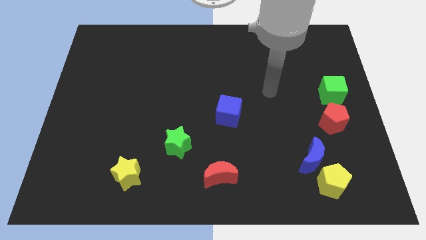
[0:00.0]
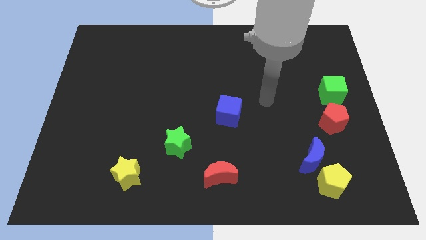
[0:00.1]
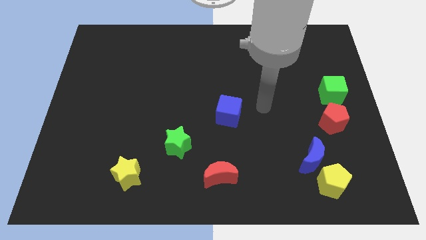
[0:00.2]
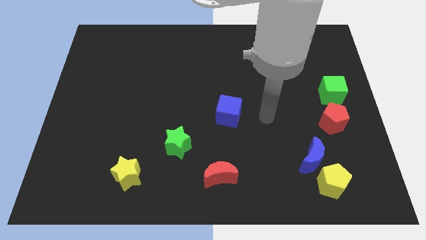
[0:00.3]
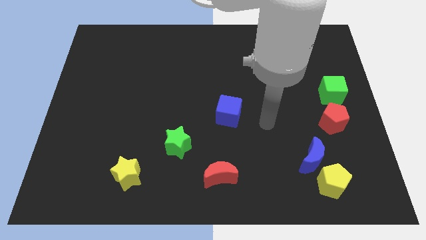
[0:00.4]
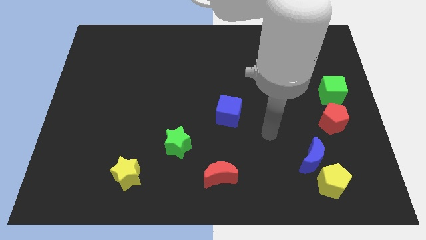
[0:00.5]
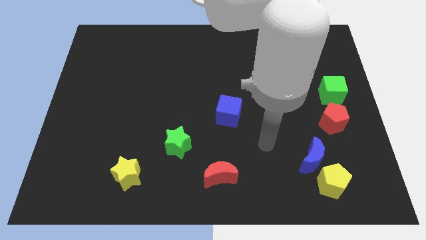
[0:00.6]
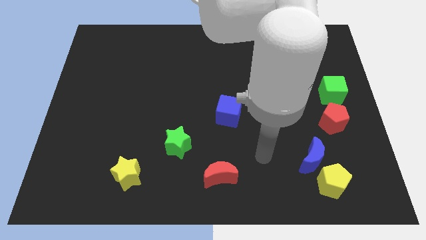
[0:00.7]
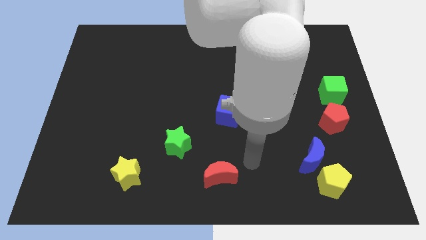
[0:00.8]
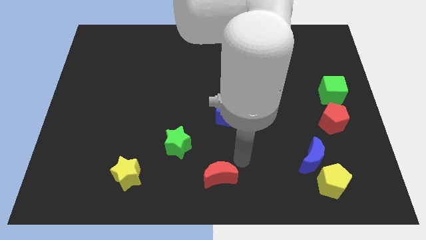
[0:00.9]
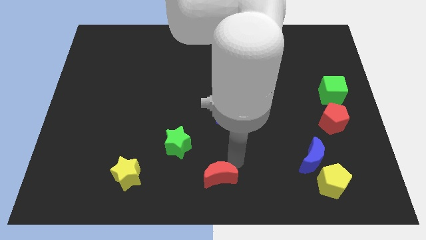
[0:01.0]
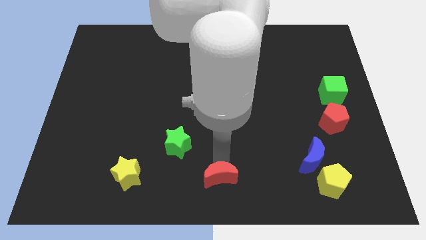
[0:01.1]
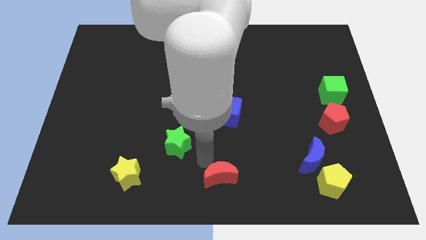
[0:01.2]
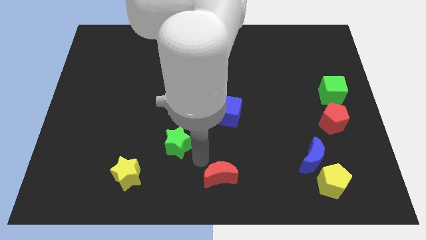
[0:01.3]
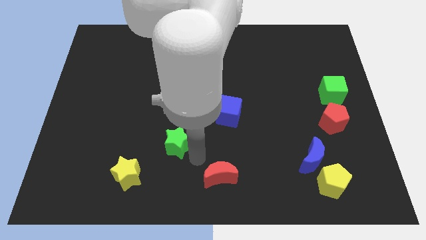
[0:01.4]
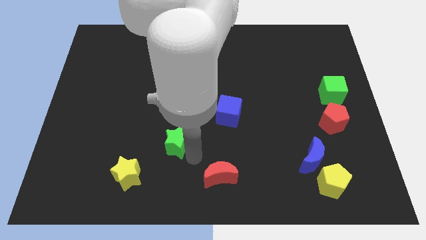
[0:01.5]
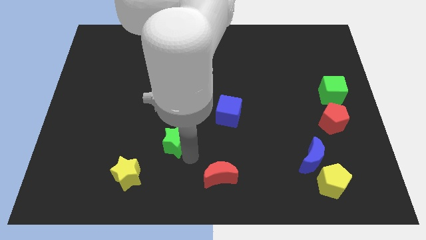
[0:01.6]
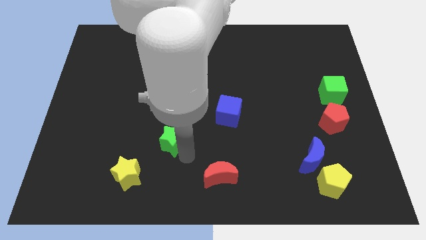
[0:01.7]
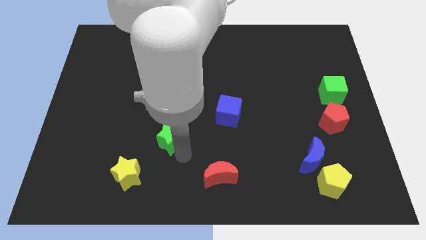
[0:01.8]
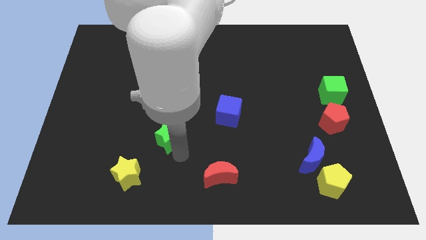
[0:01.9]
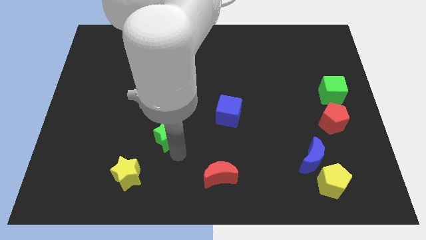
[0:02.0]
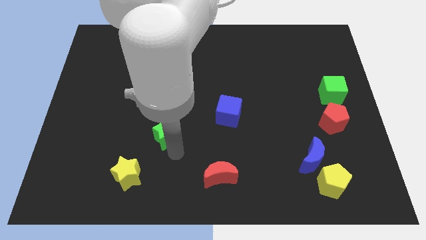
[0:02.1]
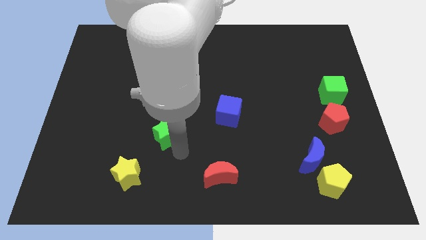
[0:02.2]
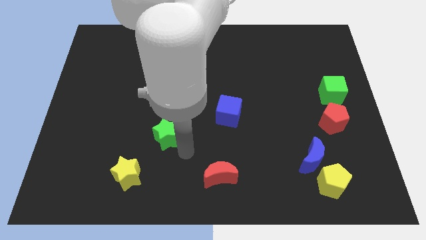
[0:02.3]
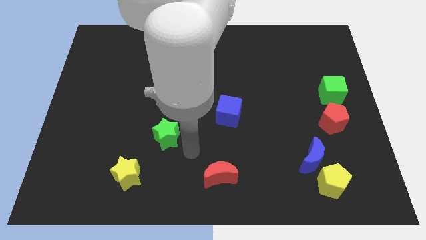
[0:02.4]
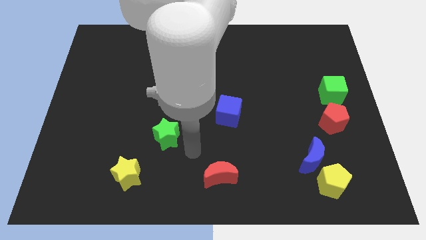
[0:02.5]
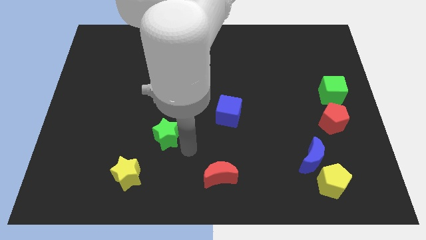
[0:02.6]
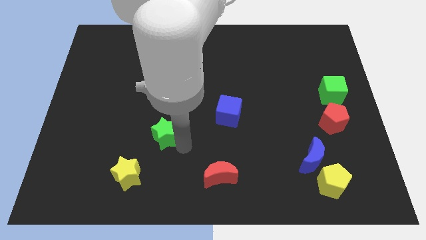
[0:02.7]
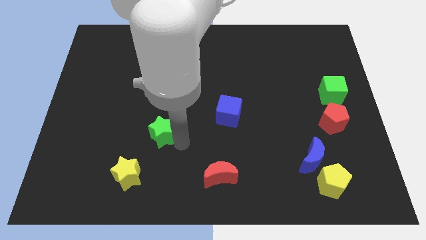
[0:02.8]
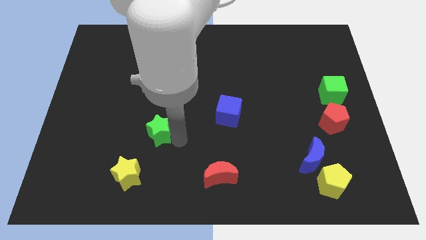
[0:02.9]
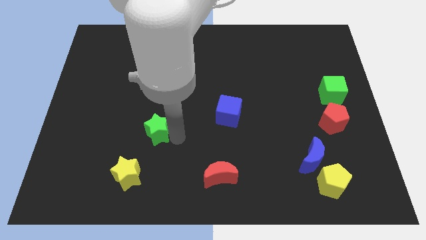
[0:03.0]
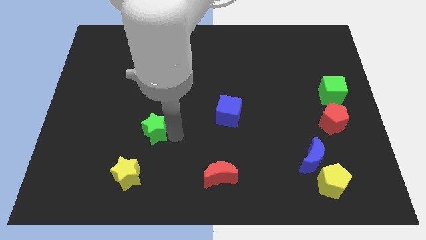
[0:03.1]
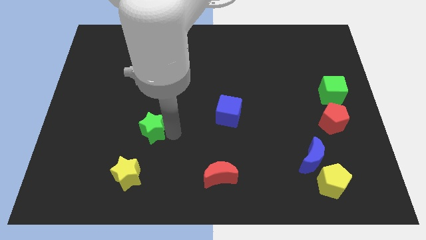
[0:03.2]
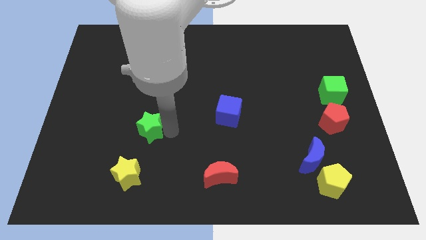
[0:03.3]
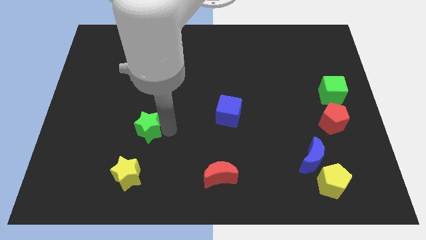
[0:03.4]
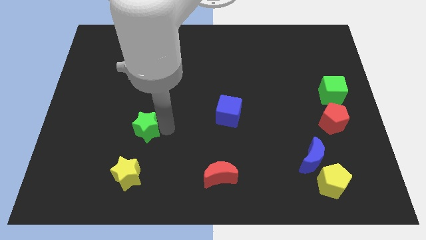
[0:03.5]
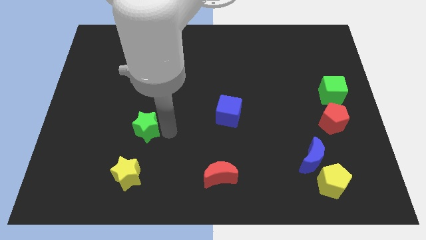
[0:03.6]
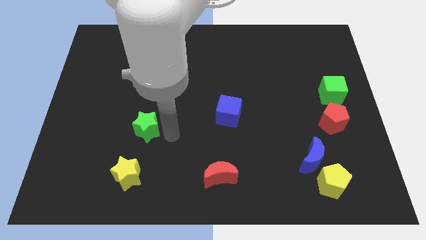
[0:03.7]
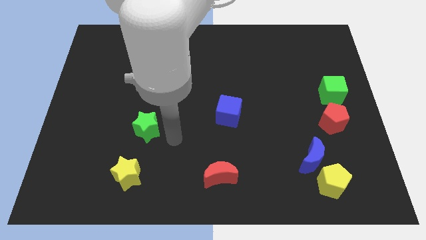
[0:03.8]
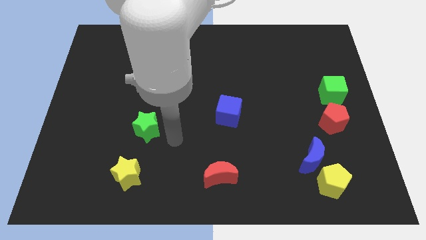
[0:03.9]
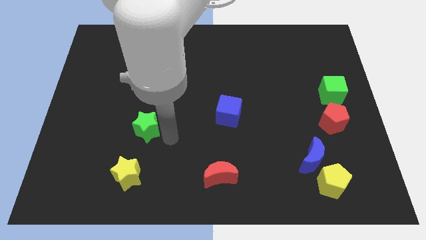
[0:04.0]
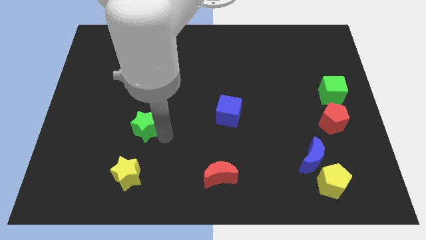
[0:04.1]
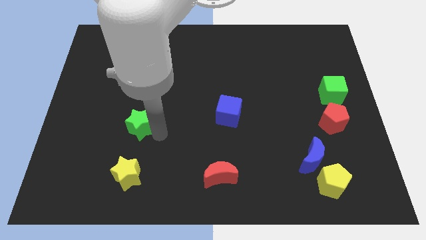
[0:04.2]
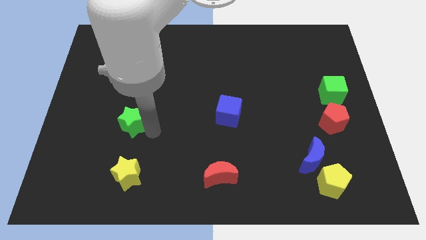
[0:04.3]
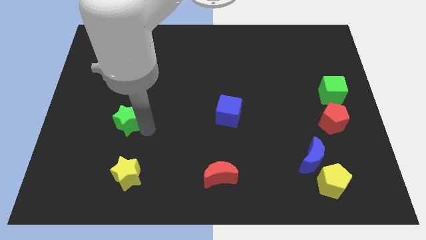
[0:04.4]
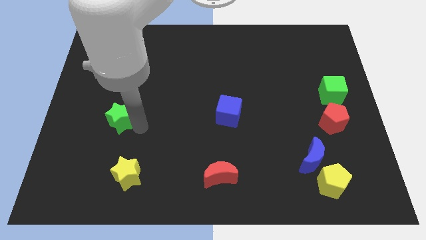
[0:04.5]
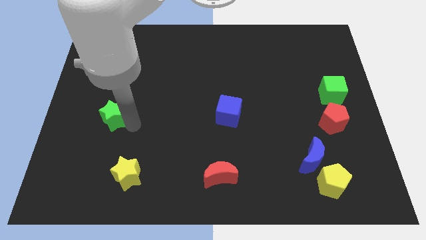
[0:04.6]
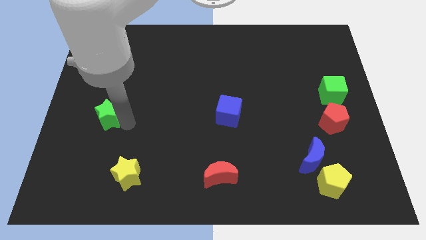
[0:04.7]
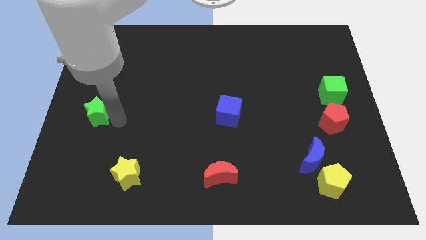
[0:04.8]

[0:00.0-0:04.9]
push the green star to the left side of the board

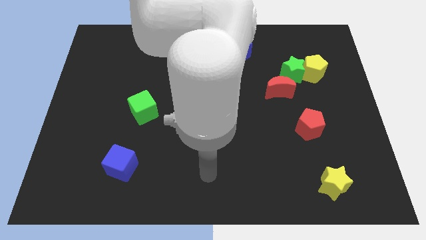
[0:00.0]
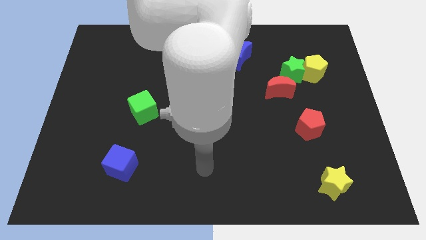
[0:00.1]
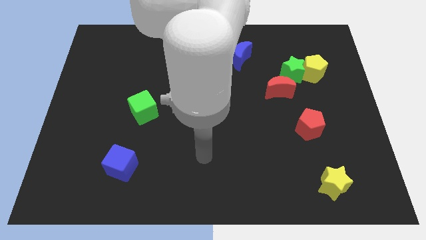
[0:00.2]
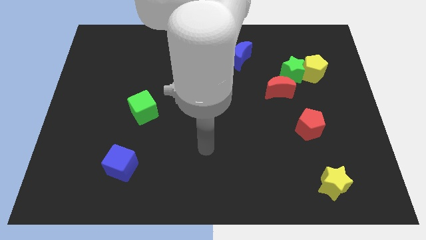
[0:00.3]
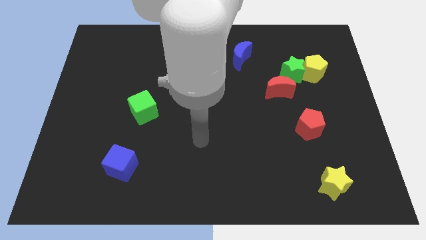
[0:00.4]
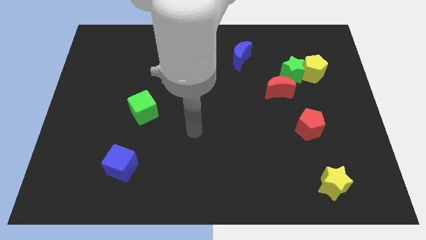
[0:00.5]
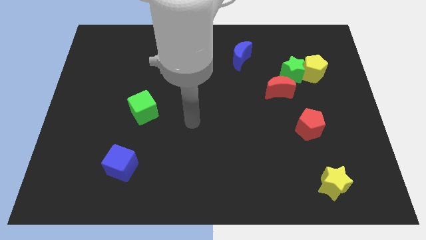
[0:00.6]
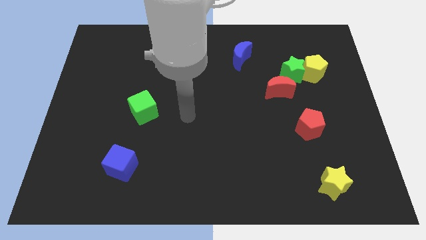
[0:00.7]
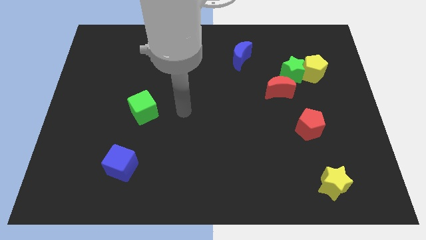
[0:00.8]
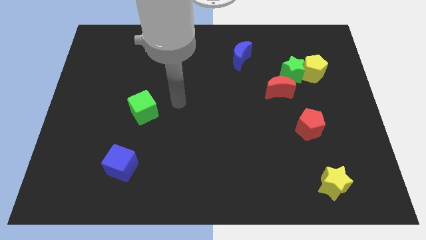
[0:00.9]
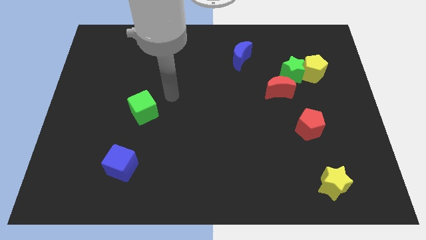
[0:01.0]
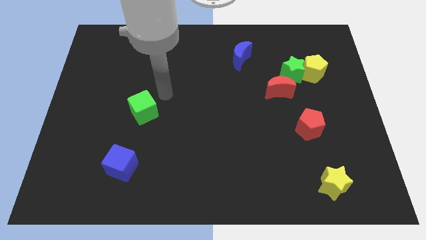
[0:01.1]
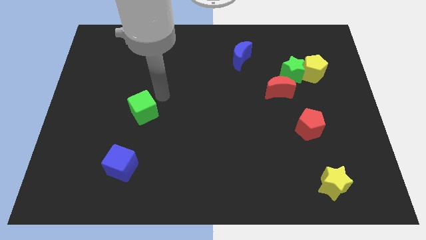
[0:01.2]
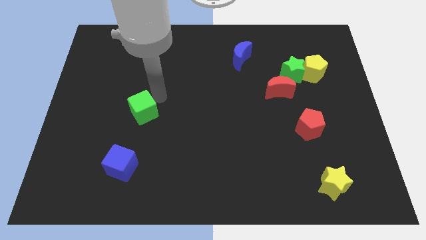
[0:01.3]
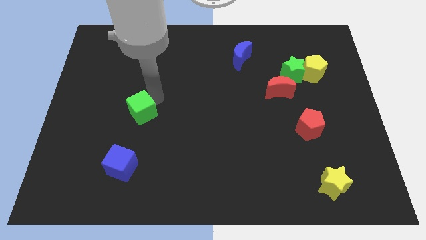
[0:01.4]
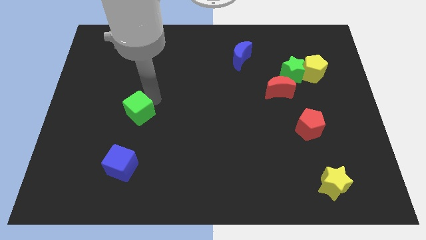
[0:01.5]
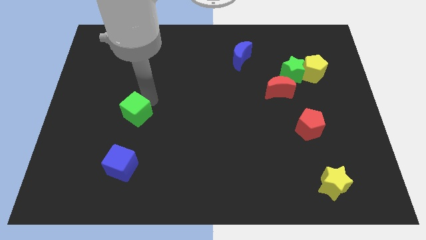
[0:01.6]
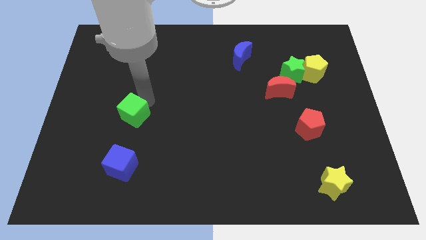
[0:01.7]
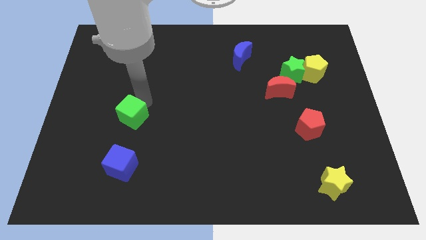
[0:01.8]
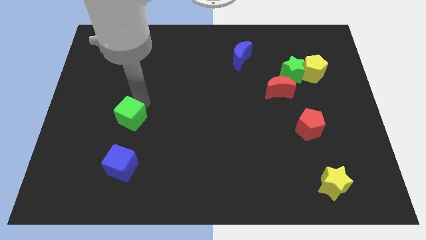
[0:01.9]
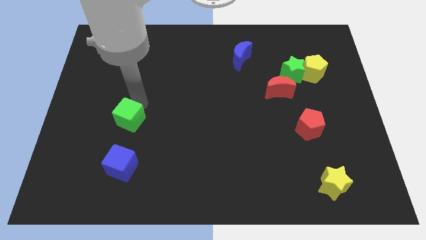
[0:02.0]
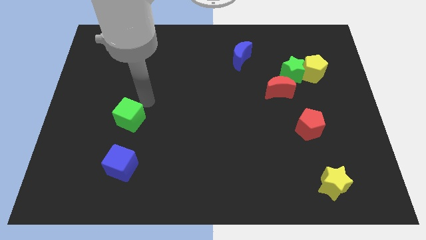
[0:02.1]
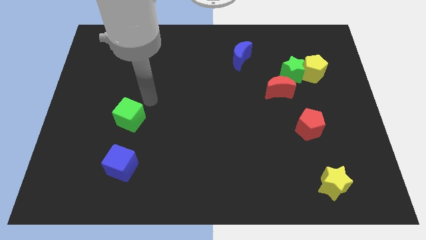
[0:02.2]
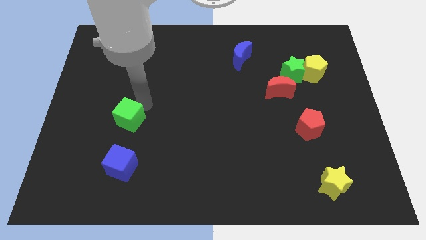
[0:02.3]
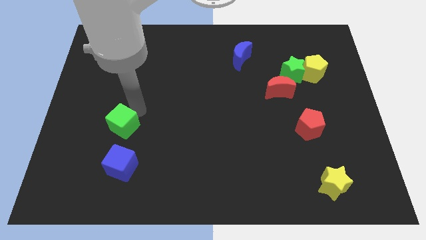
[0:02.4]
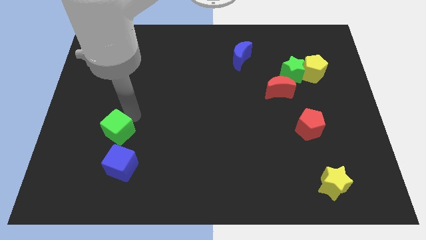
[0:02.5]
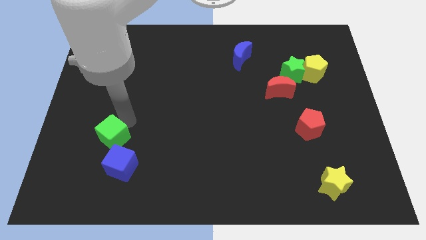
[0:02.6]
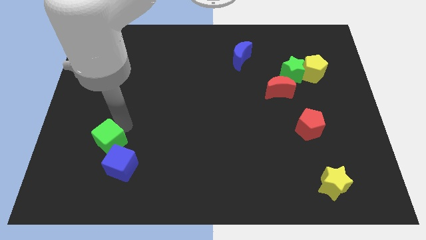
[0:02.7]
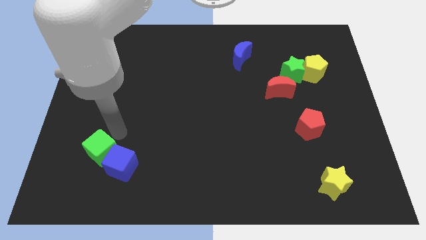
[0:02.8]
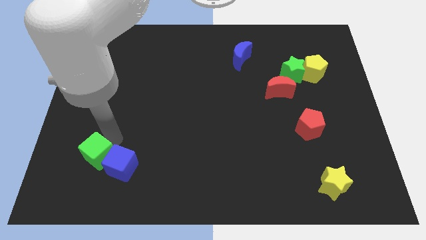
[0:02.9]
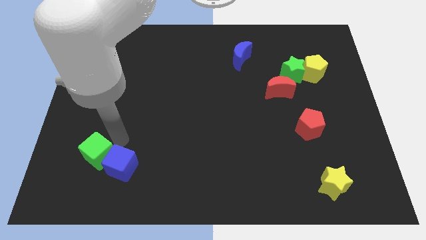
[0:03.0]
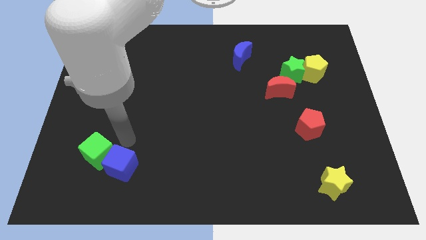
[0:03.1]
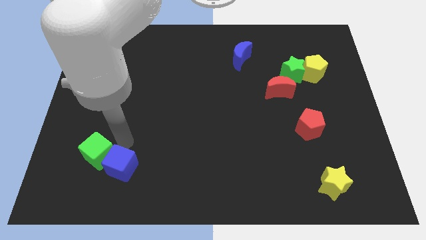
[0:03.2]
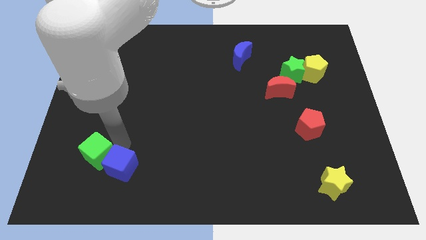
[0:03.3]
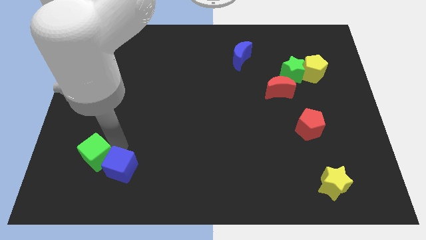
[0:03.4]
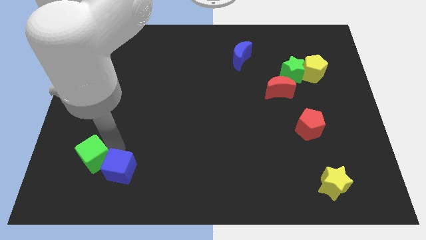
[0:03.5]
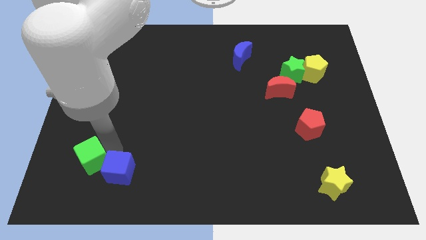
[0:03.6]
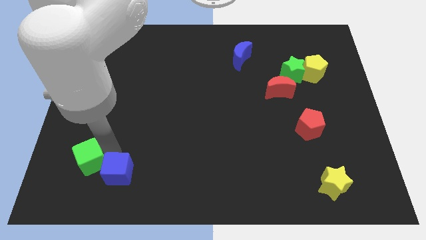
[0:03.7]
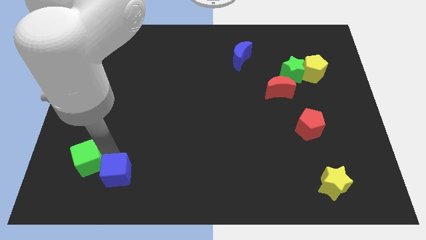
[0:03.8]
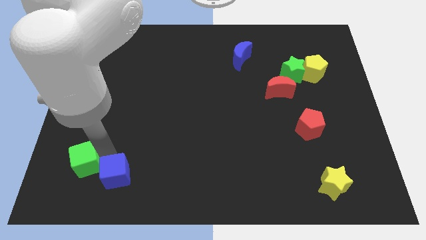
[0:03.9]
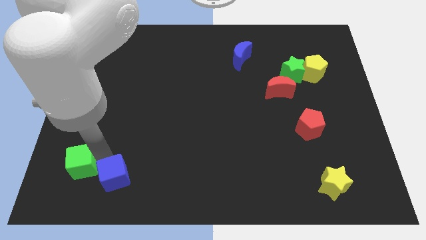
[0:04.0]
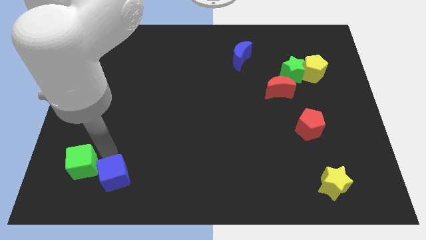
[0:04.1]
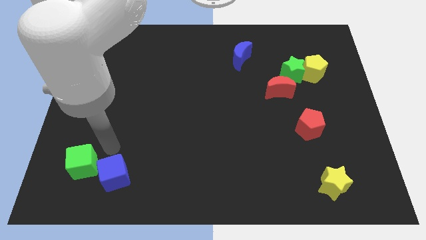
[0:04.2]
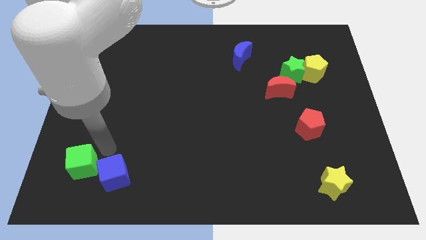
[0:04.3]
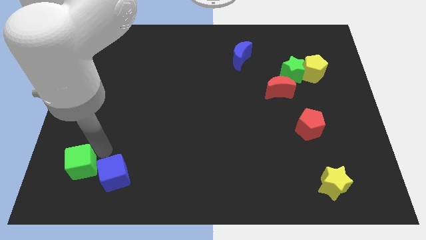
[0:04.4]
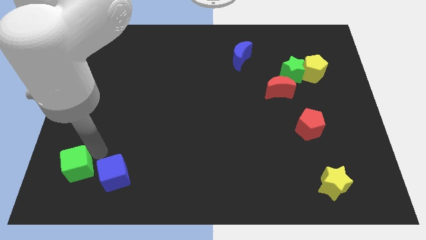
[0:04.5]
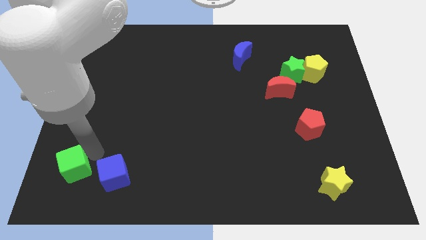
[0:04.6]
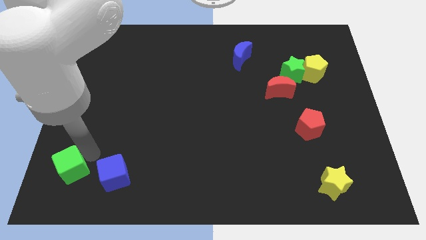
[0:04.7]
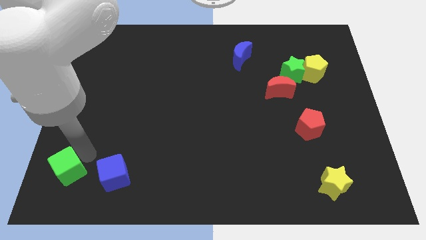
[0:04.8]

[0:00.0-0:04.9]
move the green cube to the bottom left corner
